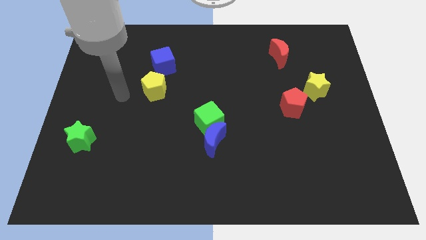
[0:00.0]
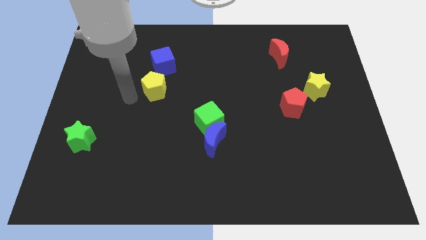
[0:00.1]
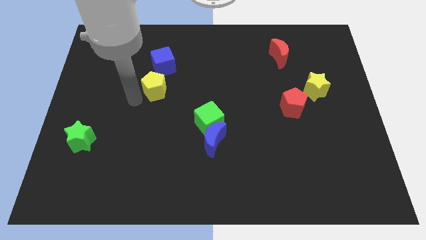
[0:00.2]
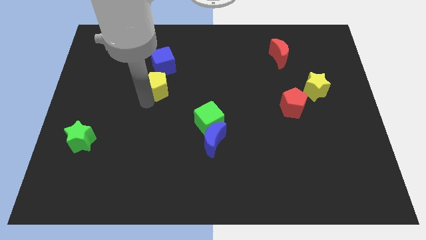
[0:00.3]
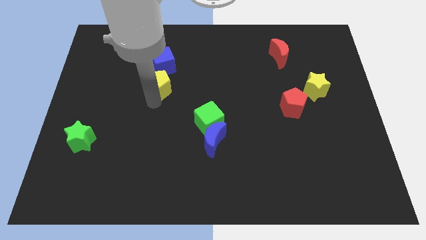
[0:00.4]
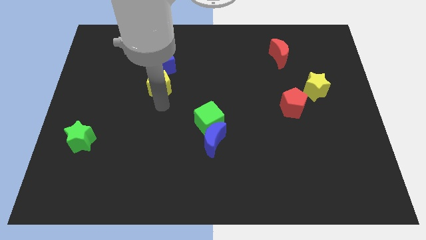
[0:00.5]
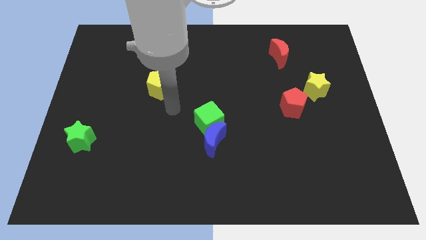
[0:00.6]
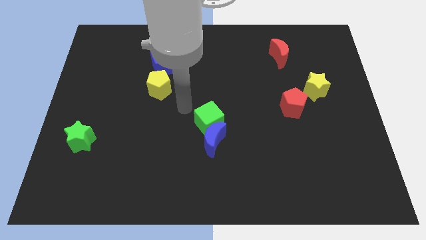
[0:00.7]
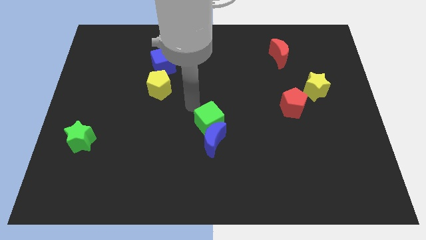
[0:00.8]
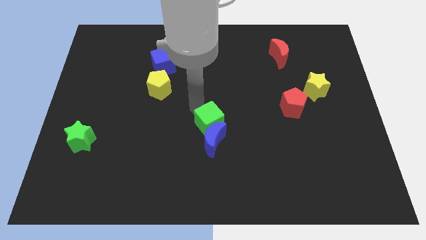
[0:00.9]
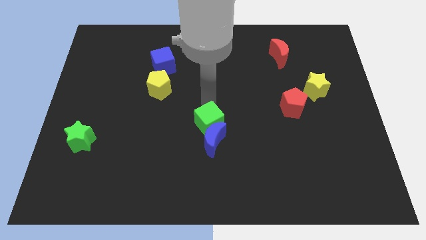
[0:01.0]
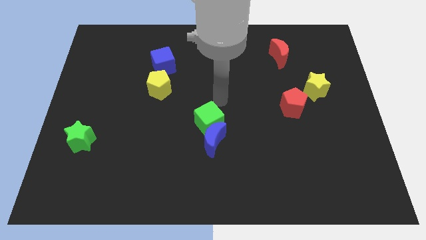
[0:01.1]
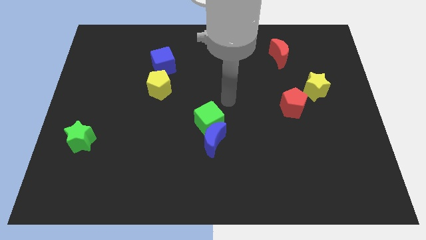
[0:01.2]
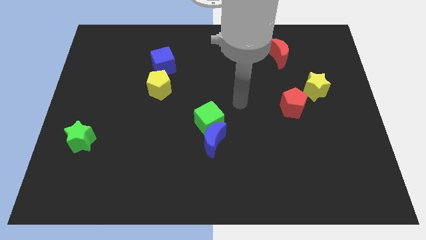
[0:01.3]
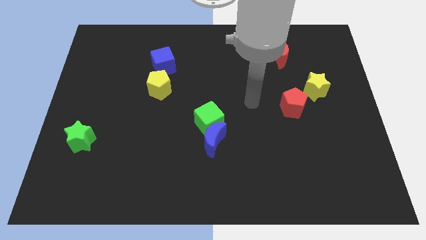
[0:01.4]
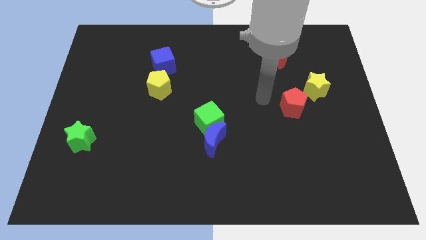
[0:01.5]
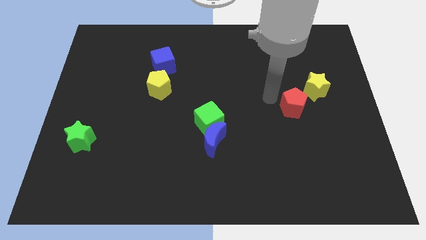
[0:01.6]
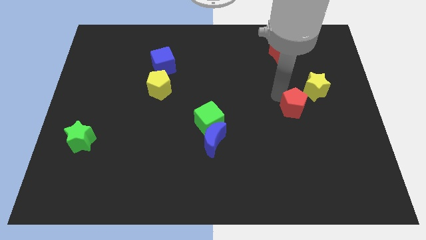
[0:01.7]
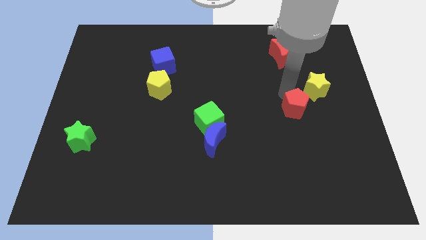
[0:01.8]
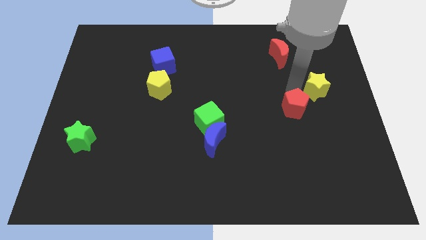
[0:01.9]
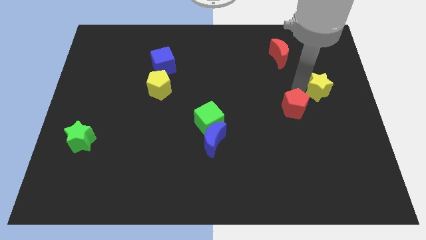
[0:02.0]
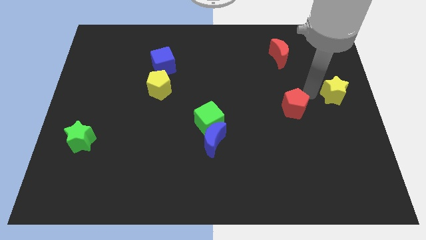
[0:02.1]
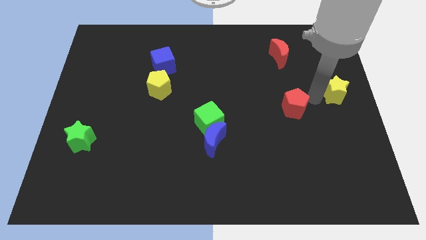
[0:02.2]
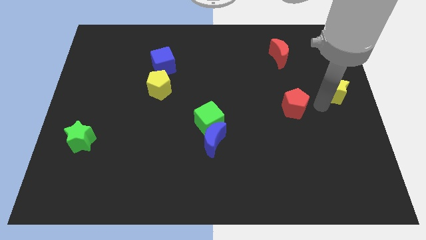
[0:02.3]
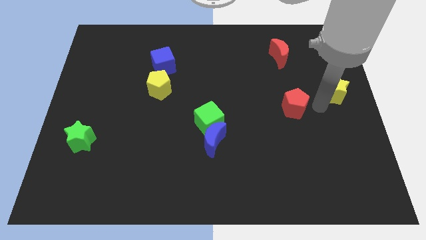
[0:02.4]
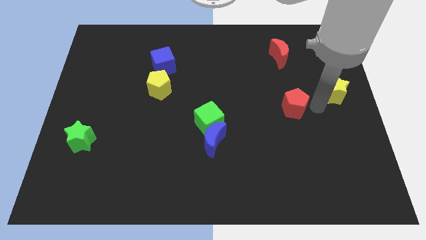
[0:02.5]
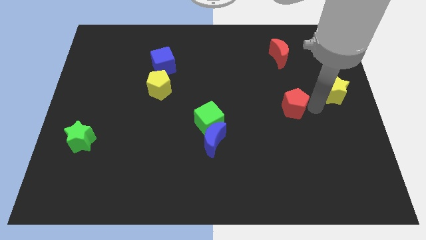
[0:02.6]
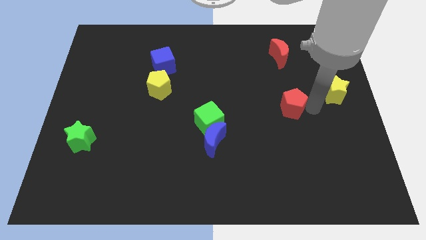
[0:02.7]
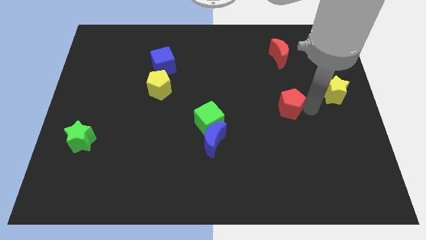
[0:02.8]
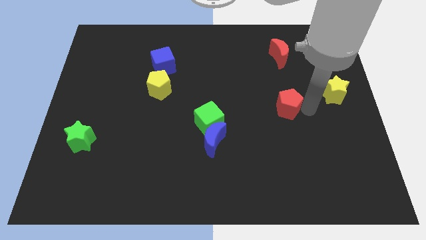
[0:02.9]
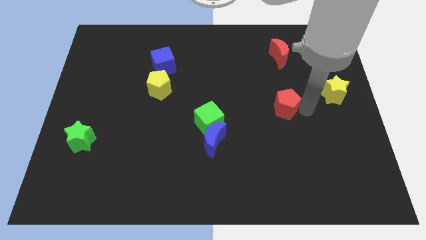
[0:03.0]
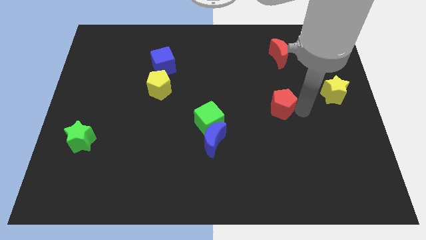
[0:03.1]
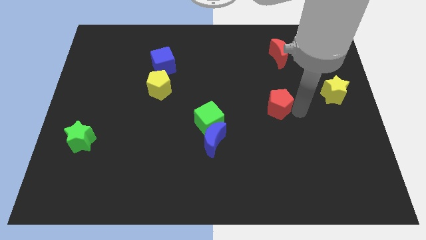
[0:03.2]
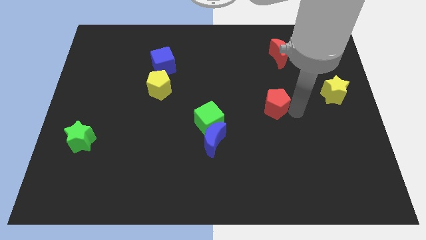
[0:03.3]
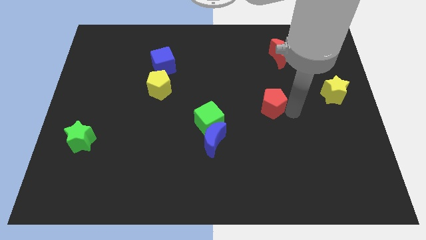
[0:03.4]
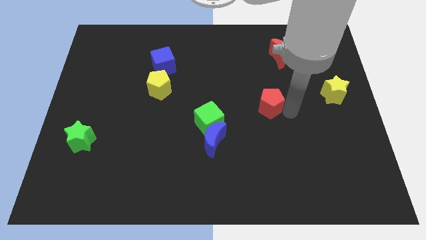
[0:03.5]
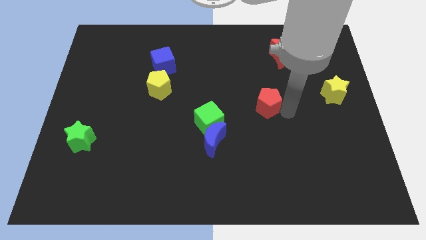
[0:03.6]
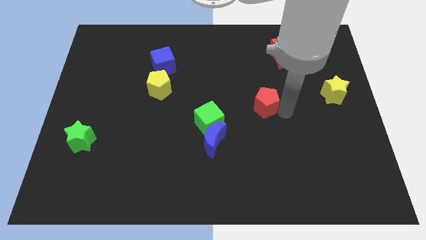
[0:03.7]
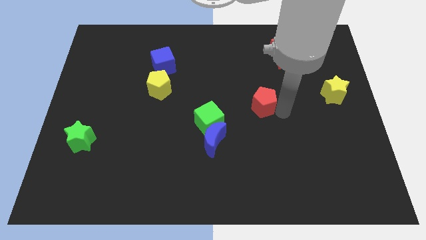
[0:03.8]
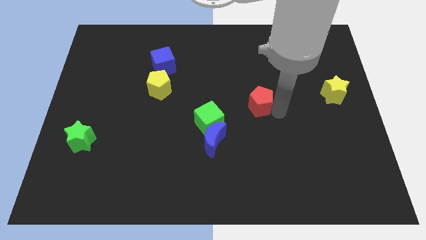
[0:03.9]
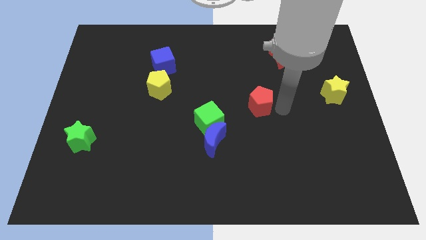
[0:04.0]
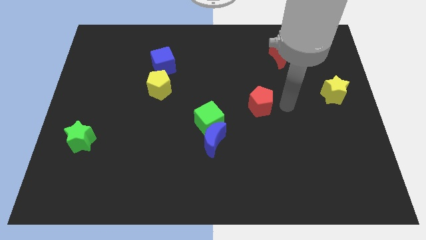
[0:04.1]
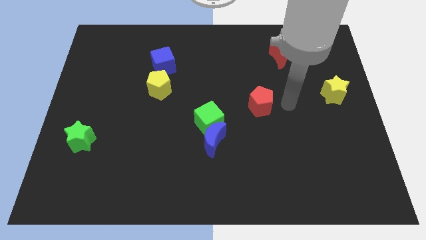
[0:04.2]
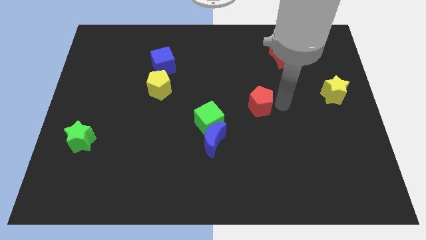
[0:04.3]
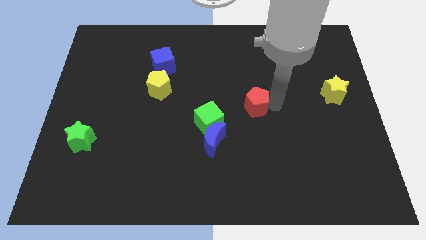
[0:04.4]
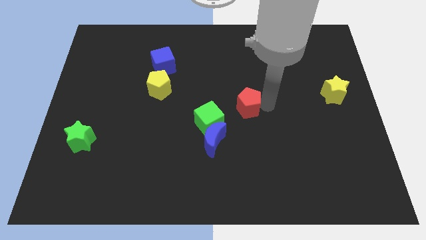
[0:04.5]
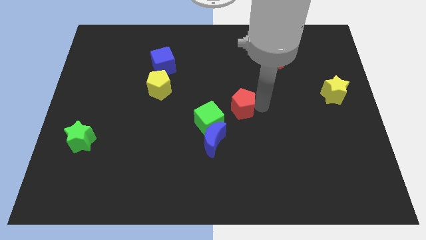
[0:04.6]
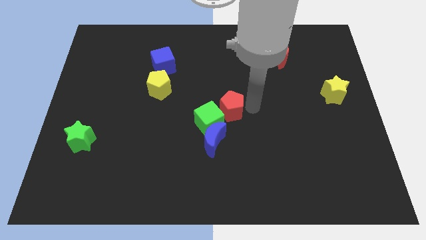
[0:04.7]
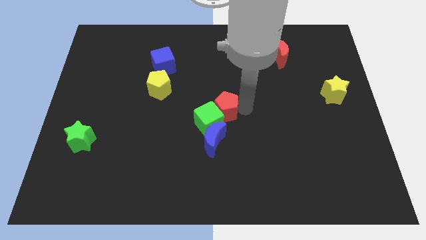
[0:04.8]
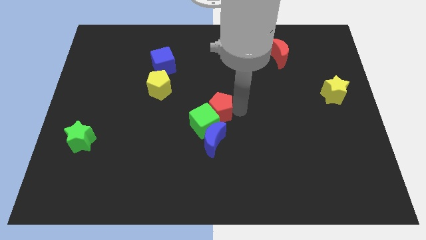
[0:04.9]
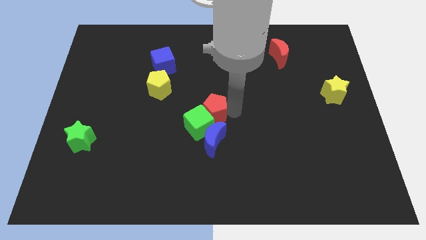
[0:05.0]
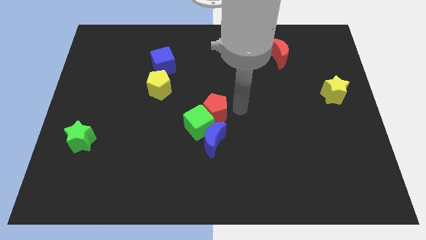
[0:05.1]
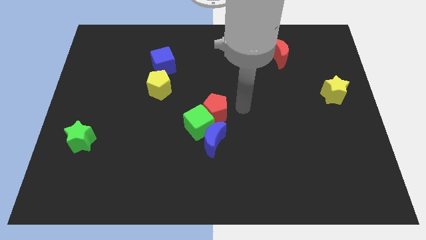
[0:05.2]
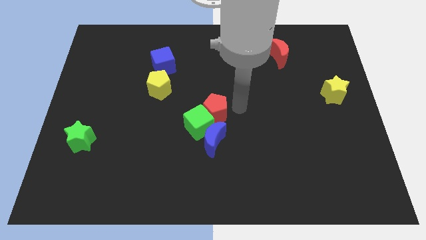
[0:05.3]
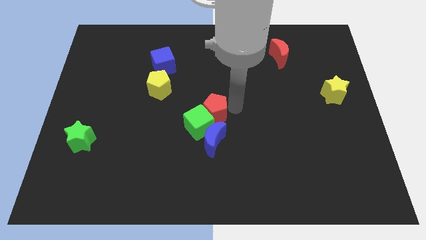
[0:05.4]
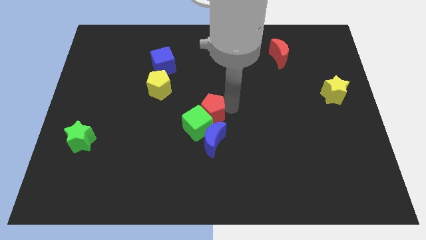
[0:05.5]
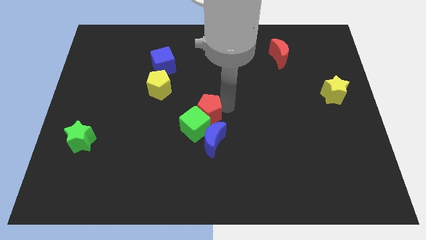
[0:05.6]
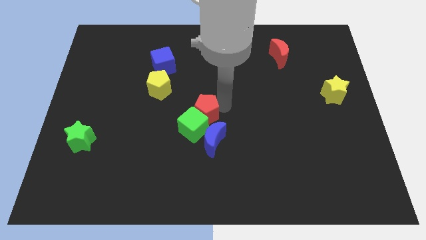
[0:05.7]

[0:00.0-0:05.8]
move the red pentagon left

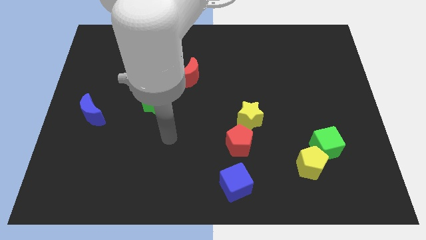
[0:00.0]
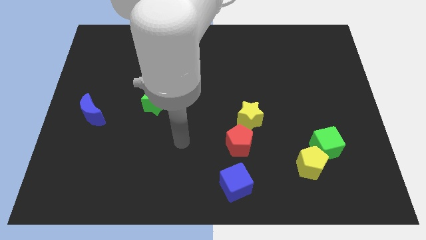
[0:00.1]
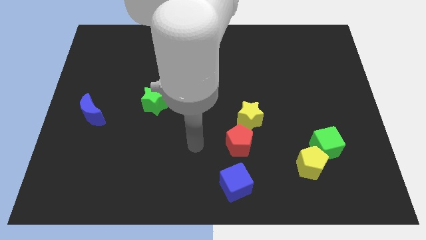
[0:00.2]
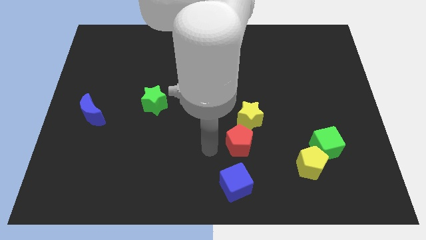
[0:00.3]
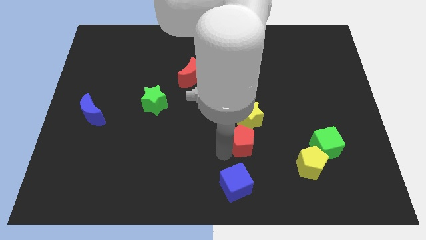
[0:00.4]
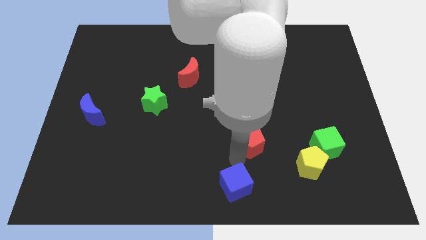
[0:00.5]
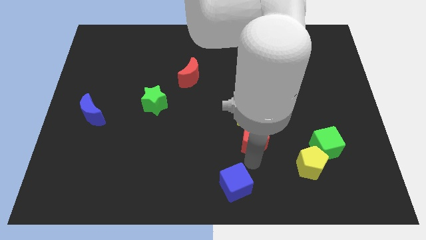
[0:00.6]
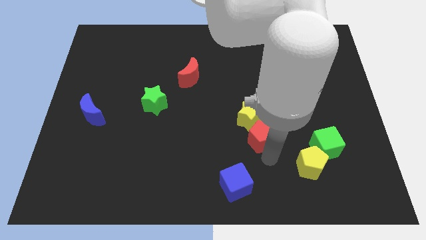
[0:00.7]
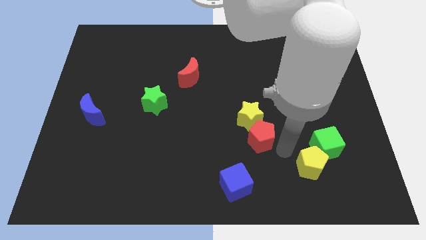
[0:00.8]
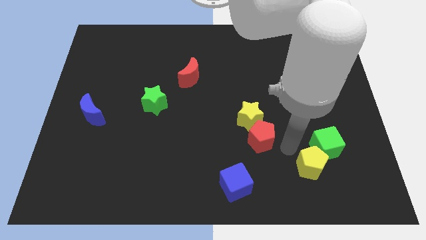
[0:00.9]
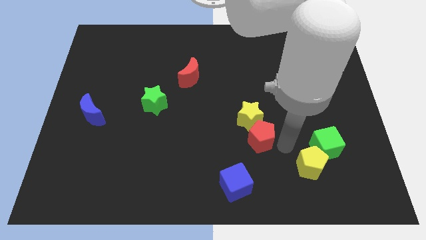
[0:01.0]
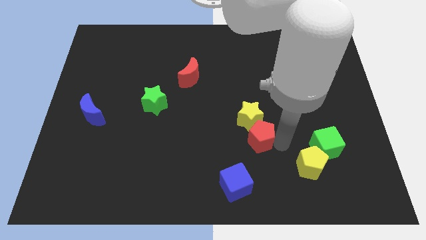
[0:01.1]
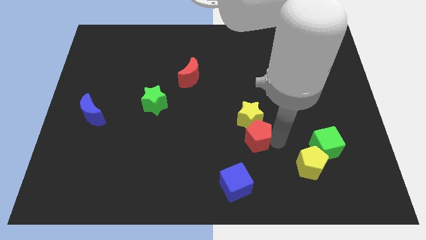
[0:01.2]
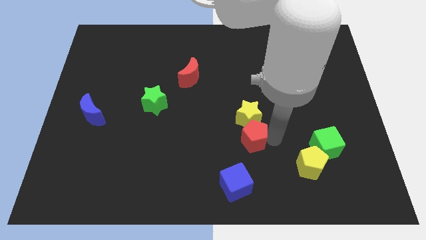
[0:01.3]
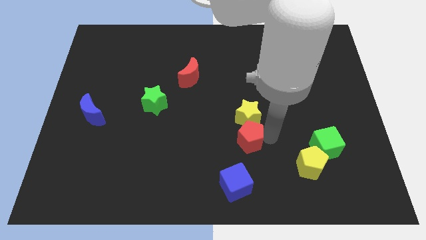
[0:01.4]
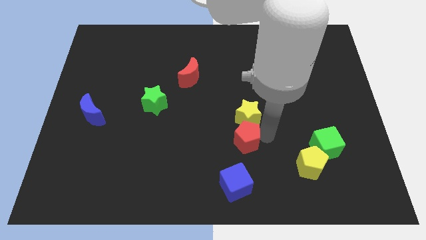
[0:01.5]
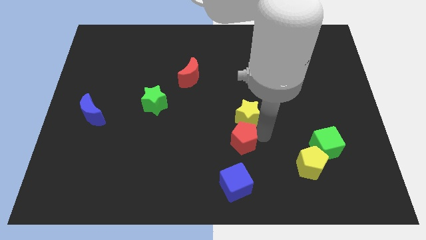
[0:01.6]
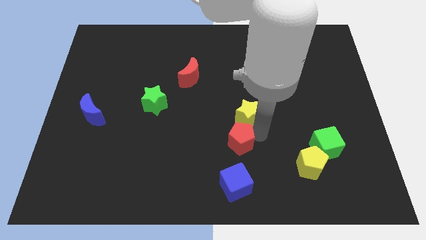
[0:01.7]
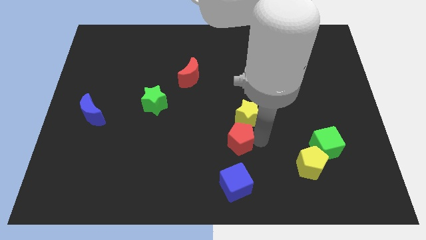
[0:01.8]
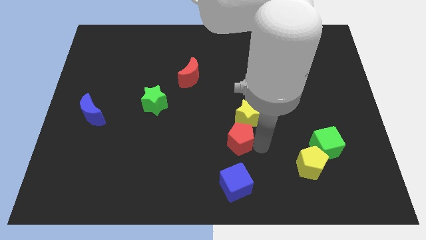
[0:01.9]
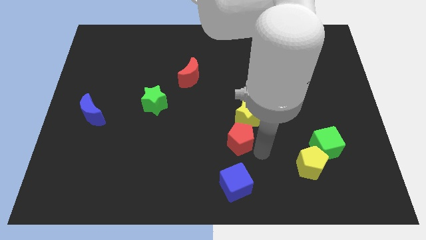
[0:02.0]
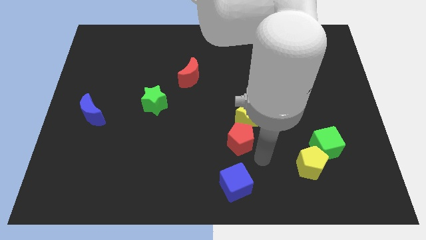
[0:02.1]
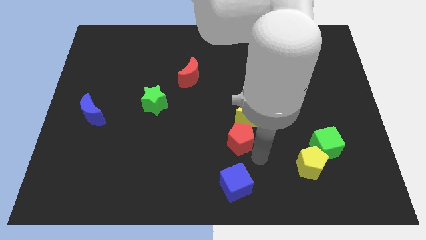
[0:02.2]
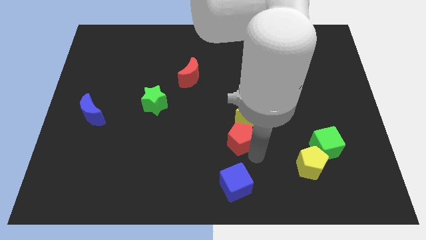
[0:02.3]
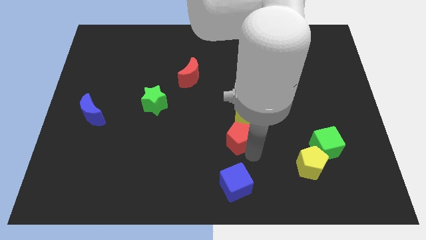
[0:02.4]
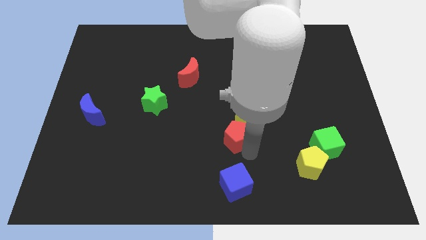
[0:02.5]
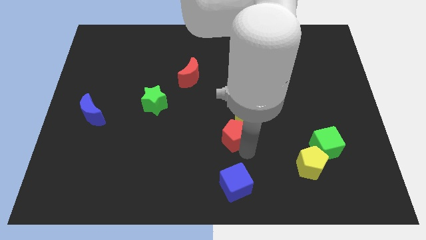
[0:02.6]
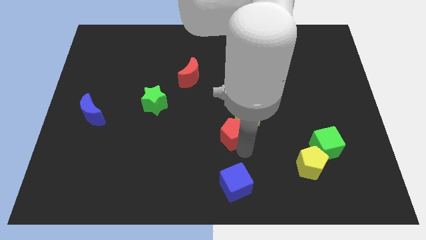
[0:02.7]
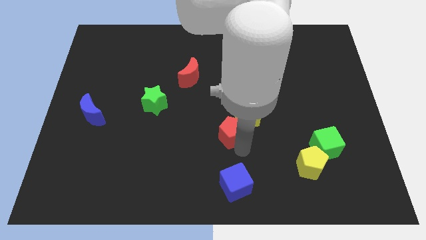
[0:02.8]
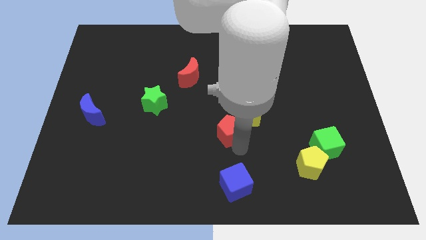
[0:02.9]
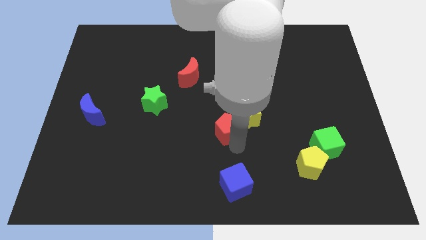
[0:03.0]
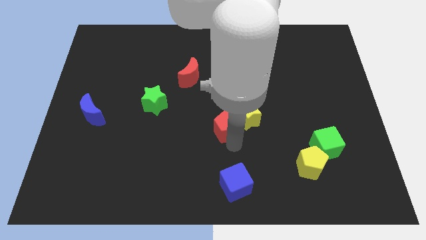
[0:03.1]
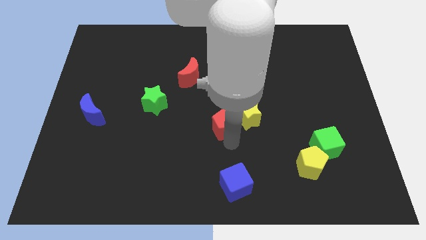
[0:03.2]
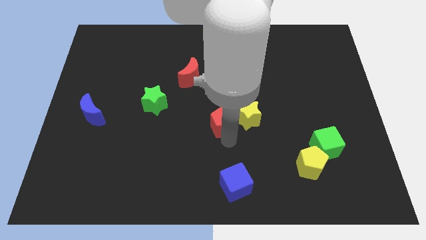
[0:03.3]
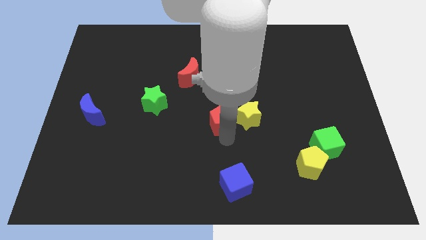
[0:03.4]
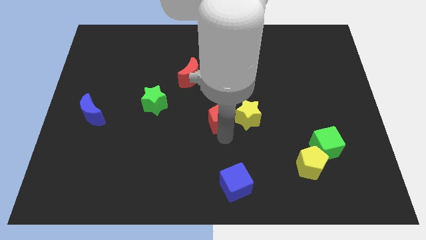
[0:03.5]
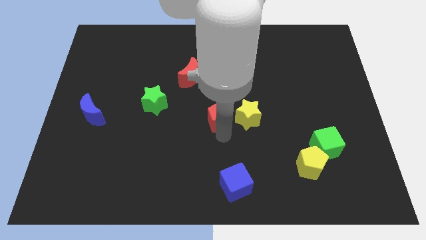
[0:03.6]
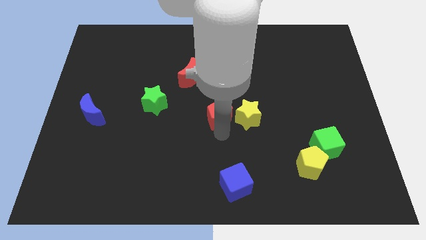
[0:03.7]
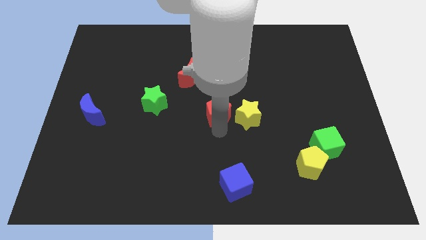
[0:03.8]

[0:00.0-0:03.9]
push the red pentagon upwards a little bit
